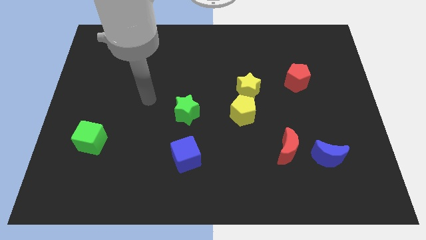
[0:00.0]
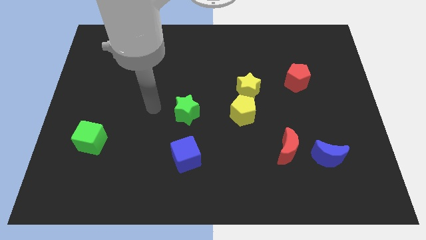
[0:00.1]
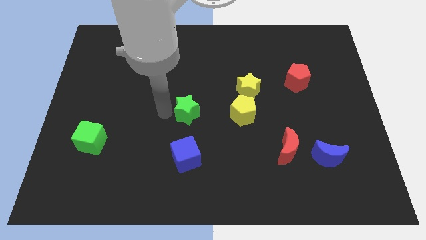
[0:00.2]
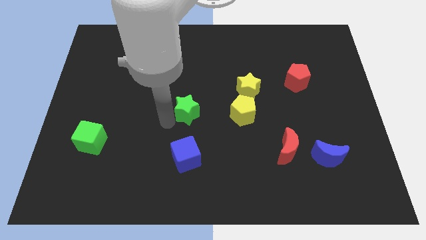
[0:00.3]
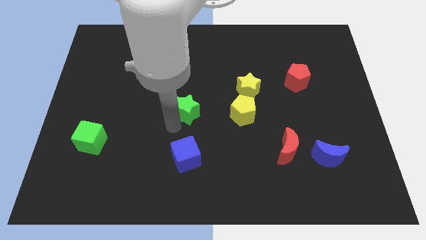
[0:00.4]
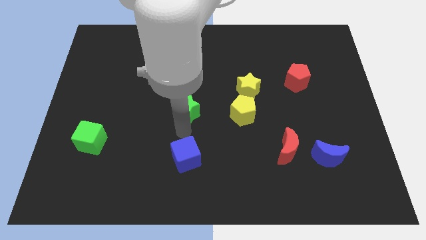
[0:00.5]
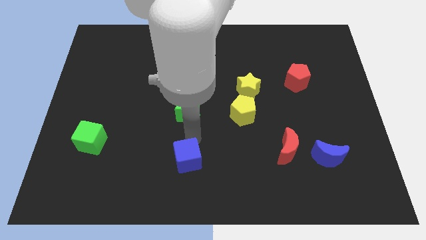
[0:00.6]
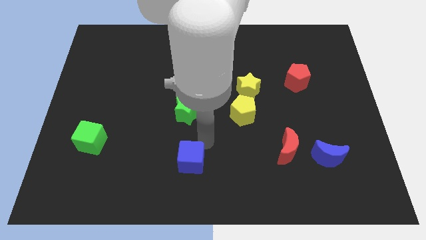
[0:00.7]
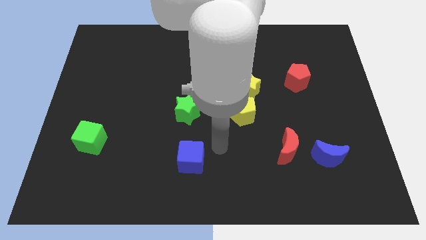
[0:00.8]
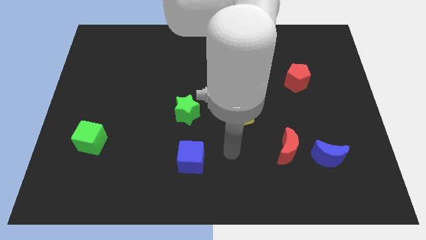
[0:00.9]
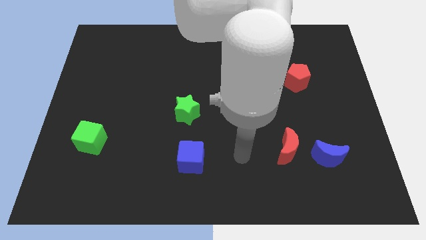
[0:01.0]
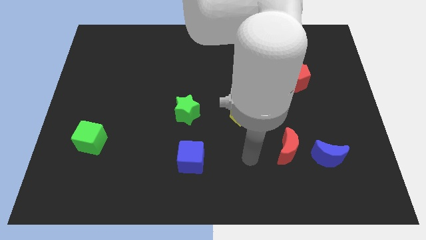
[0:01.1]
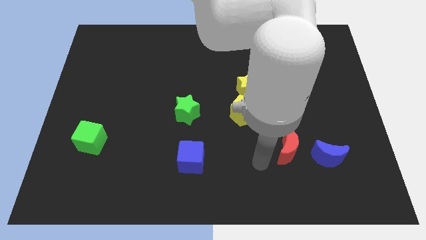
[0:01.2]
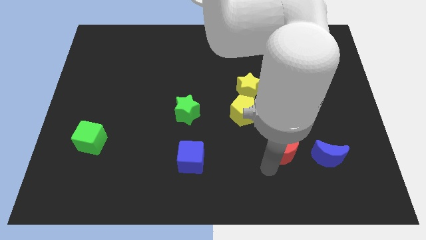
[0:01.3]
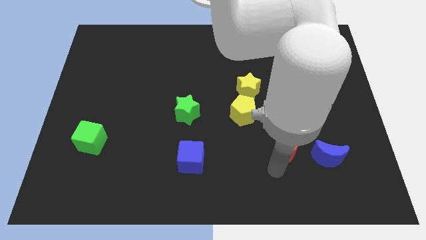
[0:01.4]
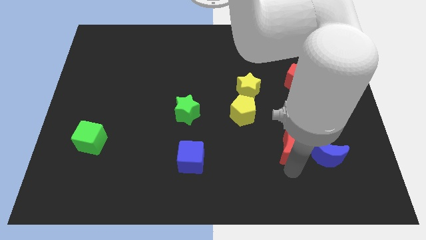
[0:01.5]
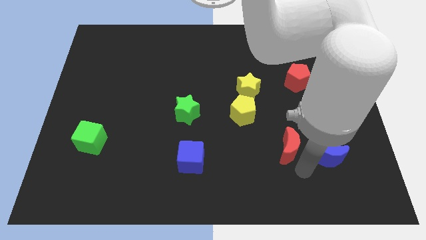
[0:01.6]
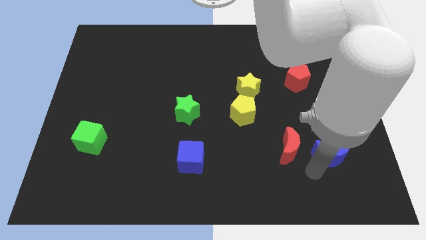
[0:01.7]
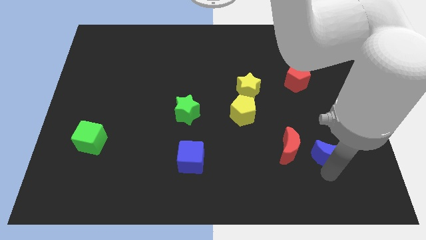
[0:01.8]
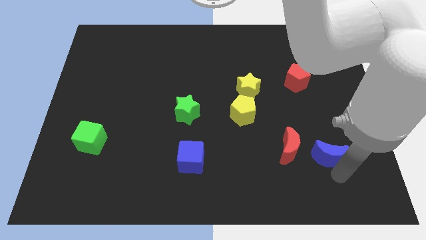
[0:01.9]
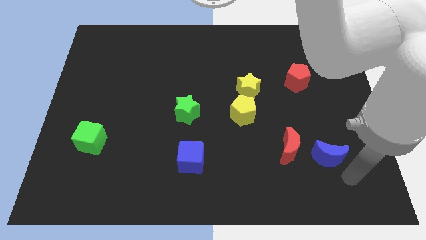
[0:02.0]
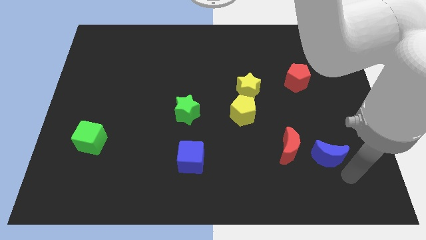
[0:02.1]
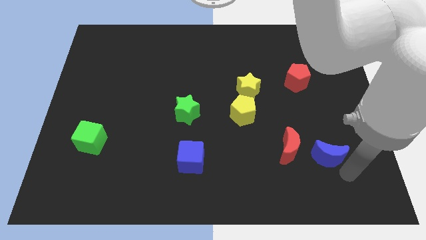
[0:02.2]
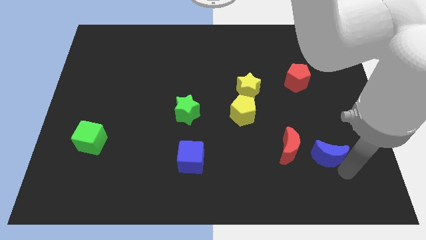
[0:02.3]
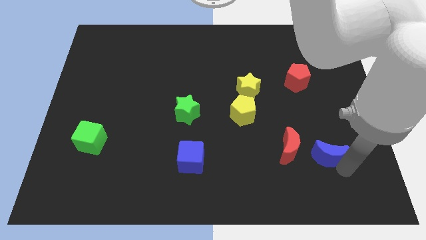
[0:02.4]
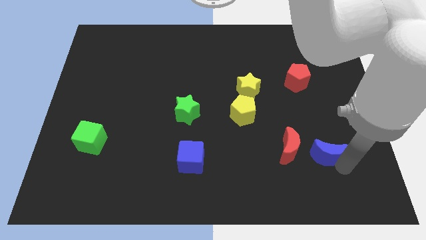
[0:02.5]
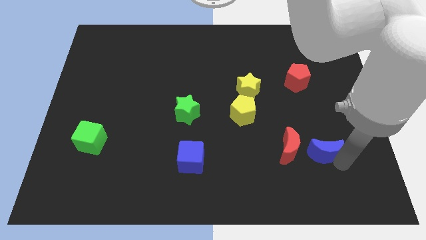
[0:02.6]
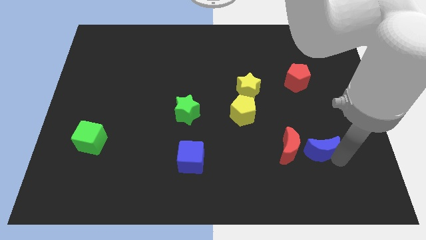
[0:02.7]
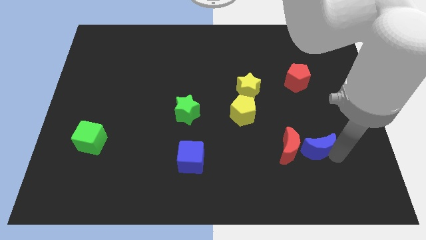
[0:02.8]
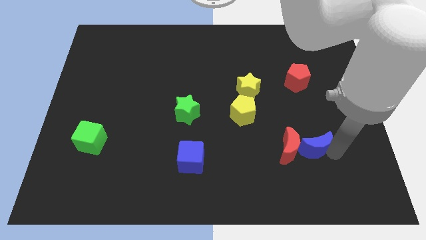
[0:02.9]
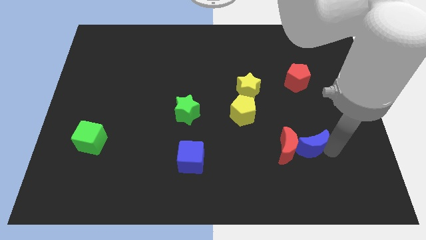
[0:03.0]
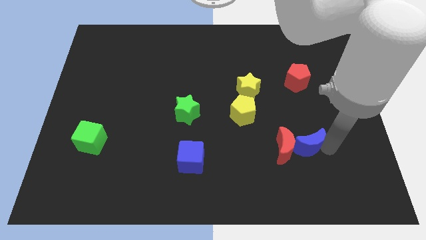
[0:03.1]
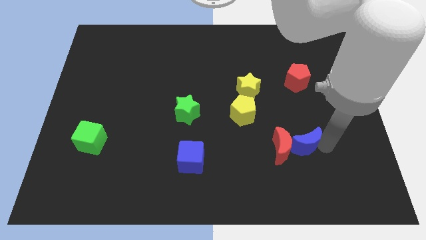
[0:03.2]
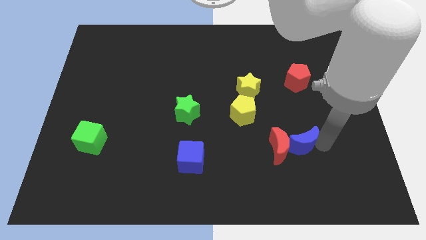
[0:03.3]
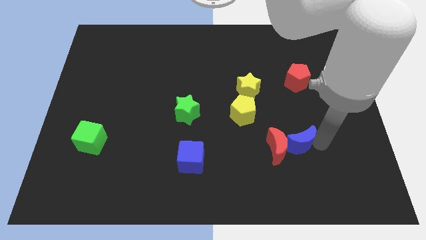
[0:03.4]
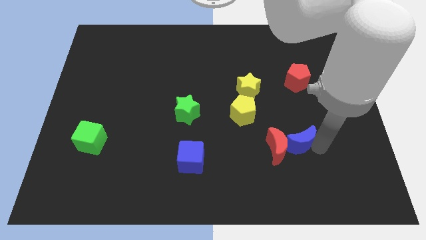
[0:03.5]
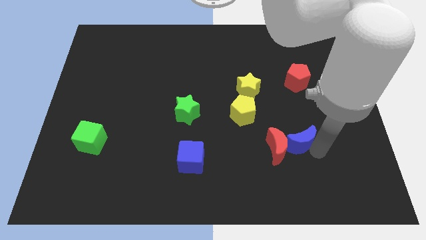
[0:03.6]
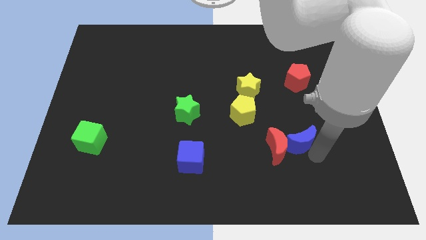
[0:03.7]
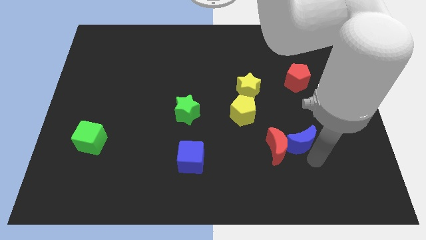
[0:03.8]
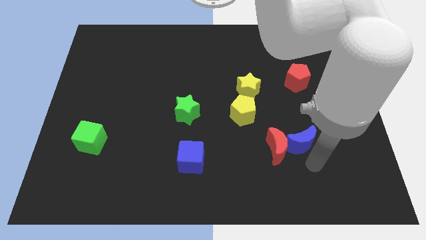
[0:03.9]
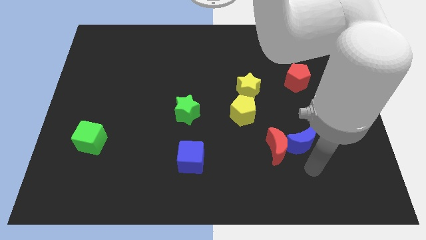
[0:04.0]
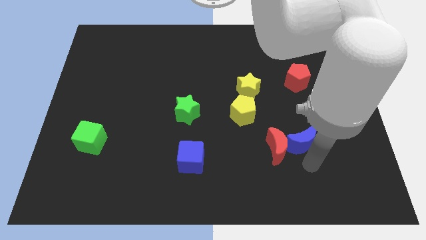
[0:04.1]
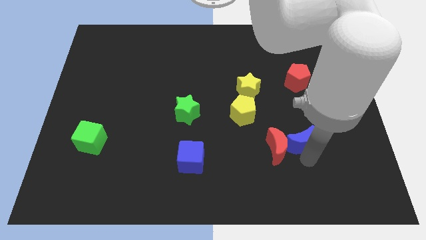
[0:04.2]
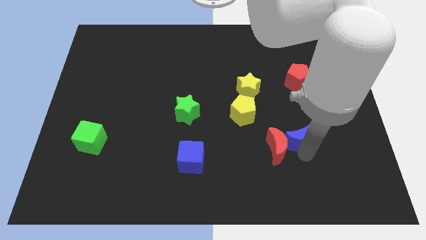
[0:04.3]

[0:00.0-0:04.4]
slightly push the blue moon upwards and to the left

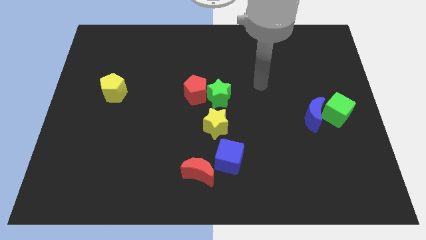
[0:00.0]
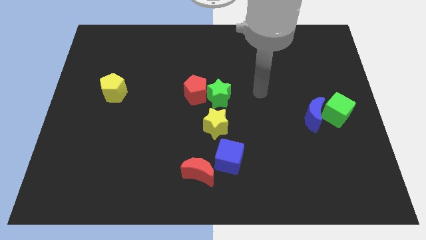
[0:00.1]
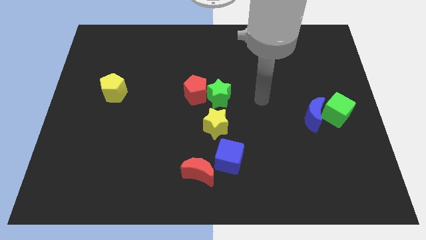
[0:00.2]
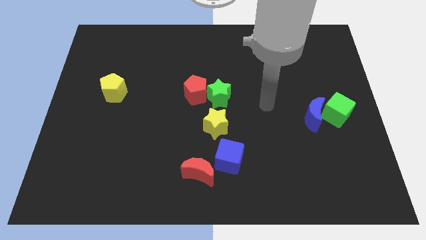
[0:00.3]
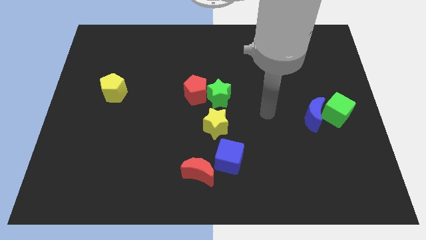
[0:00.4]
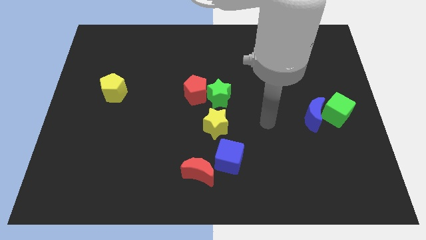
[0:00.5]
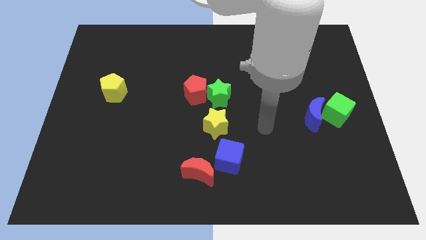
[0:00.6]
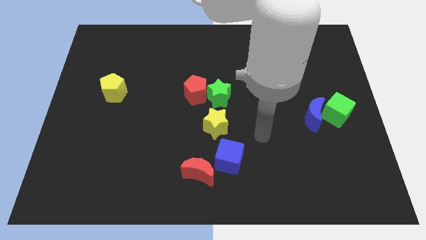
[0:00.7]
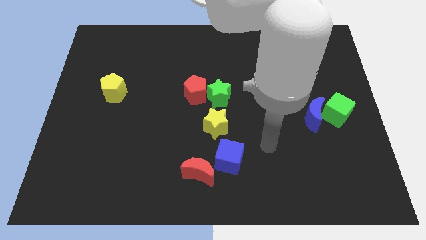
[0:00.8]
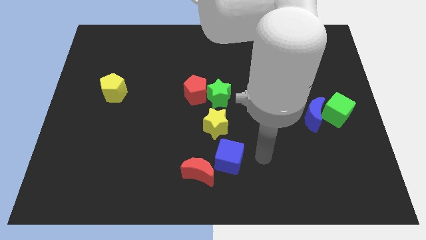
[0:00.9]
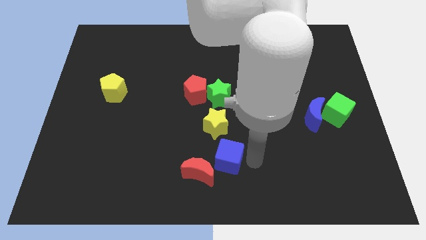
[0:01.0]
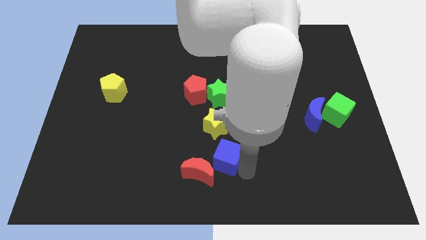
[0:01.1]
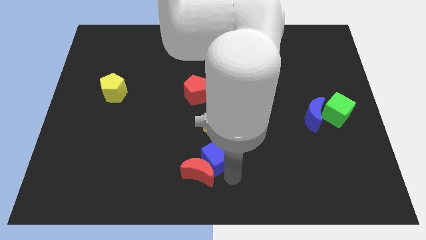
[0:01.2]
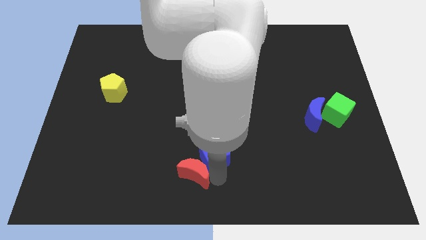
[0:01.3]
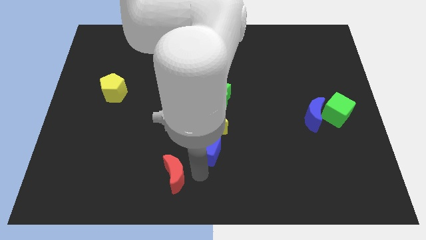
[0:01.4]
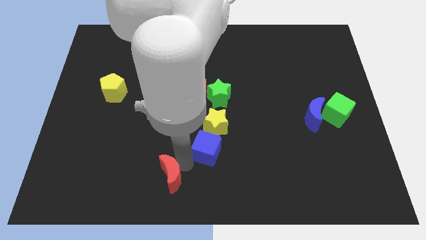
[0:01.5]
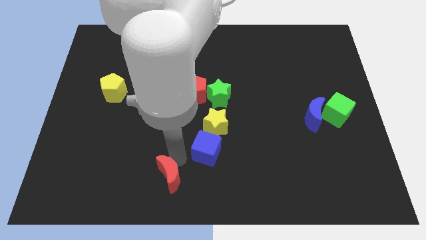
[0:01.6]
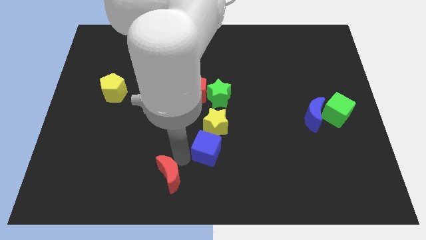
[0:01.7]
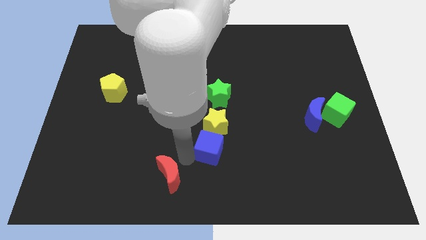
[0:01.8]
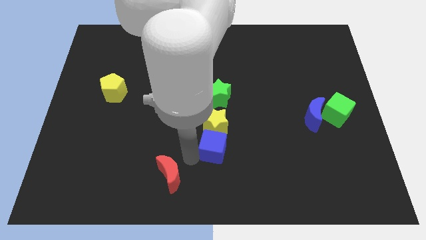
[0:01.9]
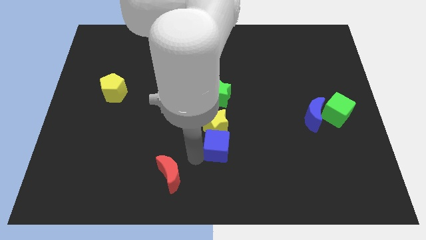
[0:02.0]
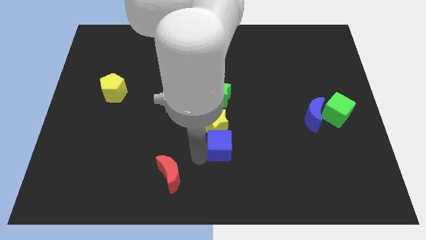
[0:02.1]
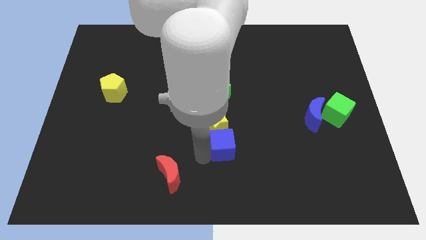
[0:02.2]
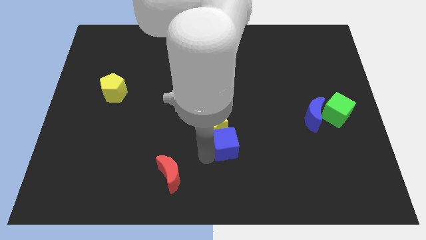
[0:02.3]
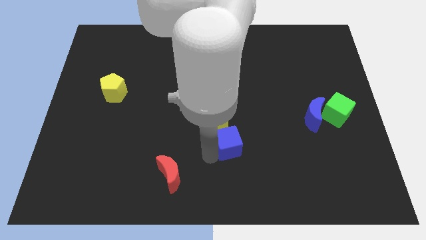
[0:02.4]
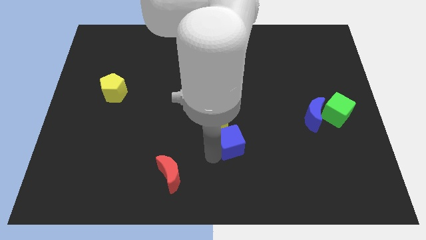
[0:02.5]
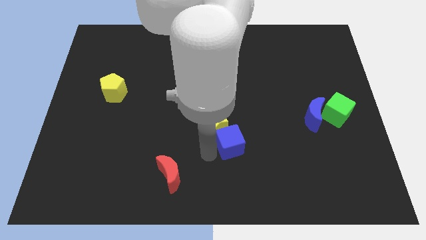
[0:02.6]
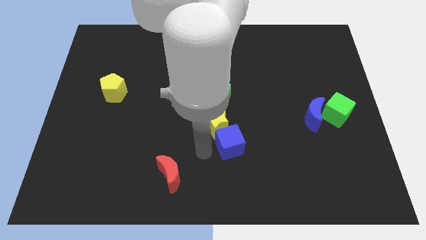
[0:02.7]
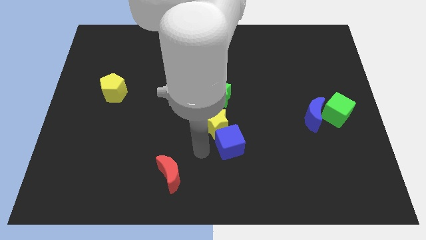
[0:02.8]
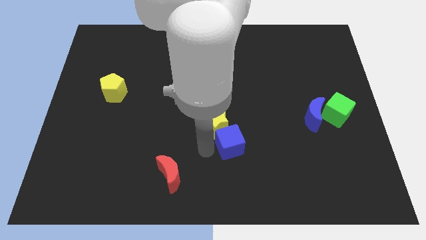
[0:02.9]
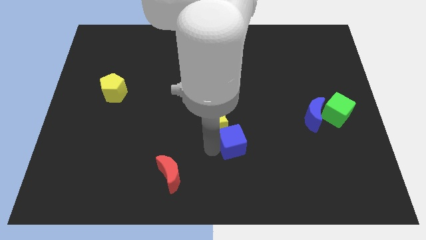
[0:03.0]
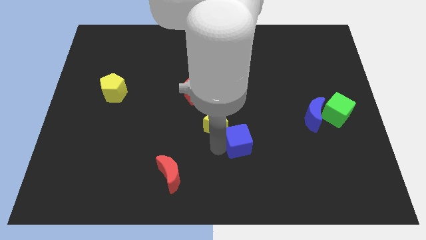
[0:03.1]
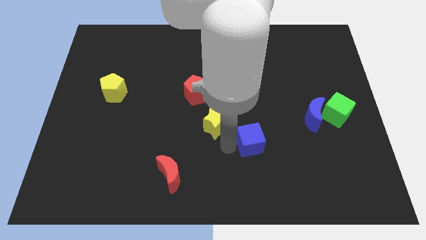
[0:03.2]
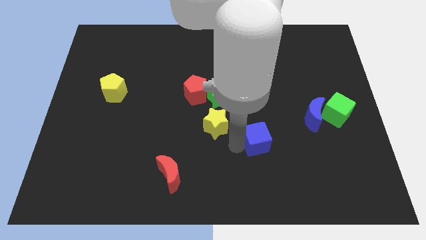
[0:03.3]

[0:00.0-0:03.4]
slide the blue cube diagonally up and right slightly
